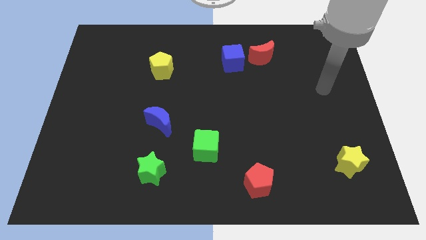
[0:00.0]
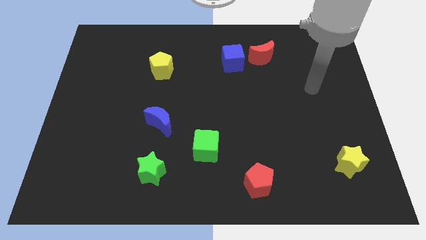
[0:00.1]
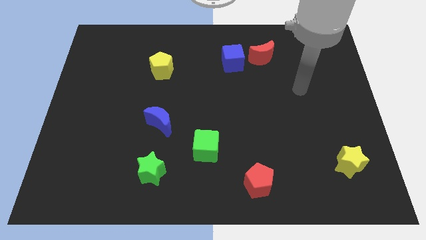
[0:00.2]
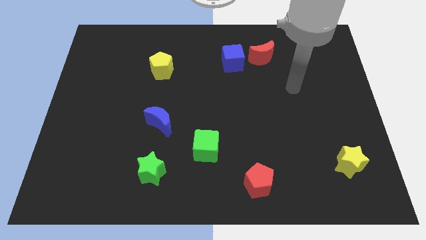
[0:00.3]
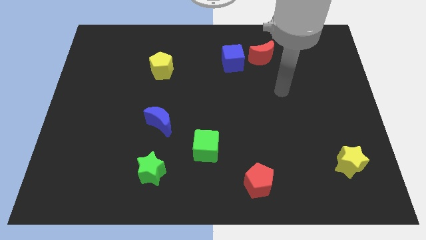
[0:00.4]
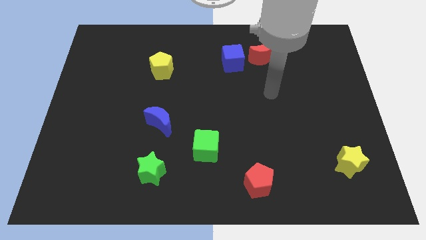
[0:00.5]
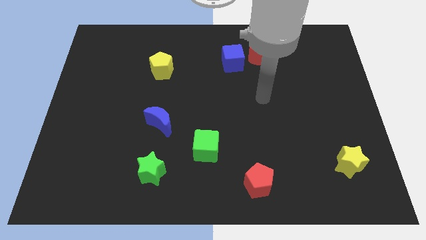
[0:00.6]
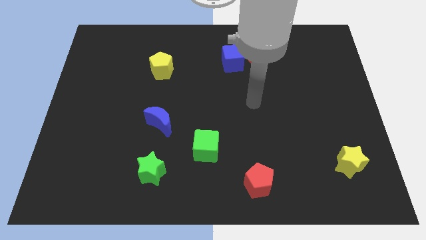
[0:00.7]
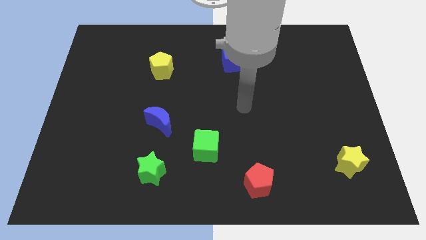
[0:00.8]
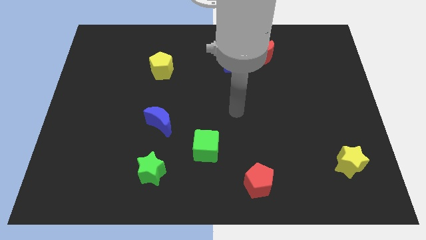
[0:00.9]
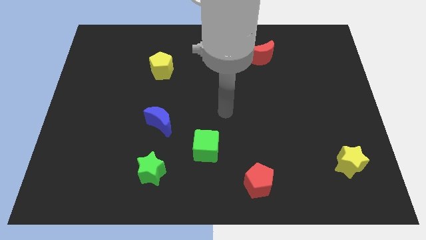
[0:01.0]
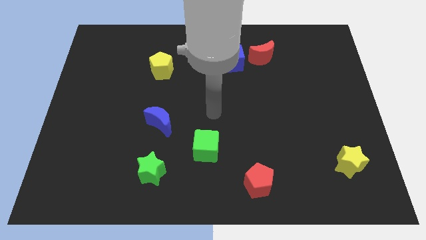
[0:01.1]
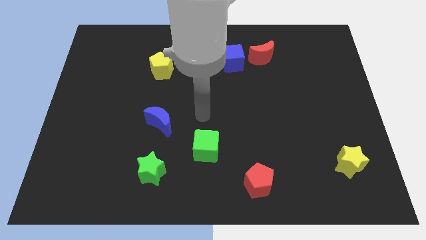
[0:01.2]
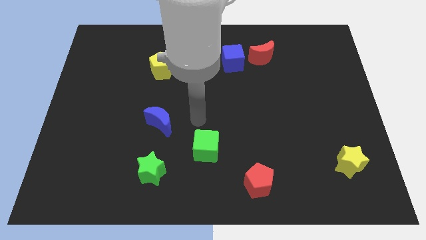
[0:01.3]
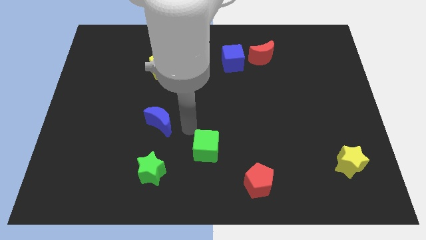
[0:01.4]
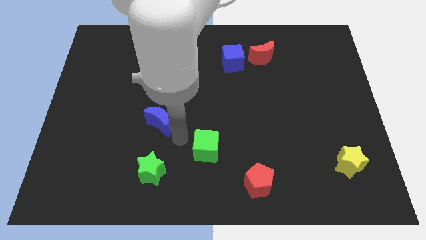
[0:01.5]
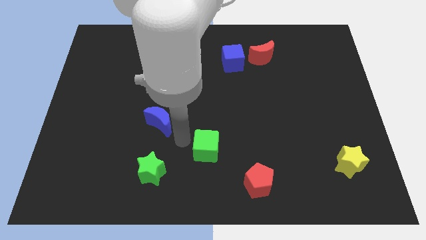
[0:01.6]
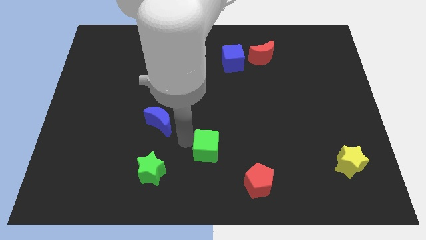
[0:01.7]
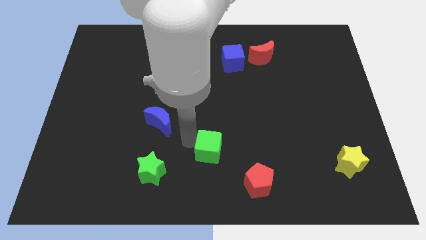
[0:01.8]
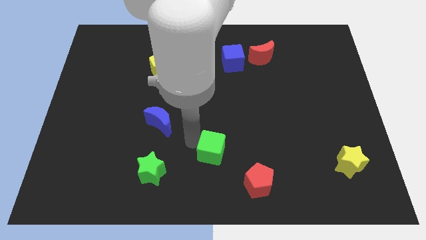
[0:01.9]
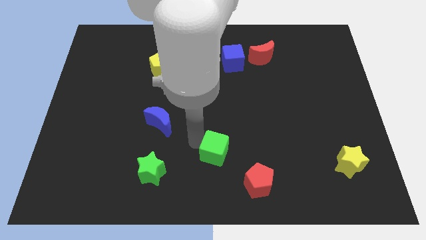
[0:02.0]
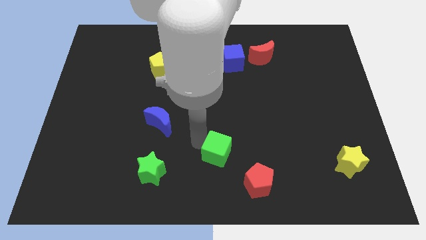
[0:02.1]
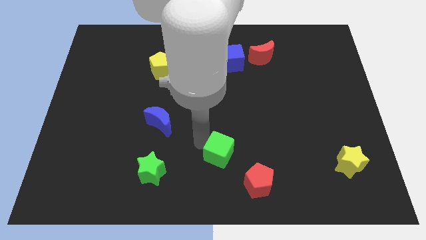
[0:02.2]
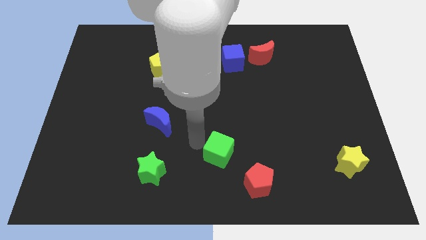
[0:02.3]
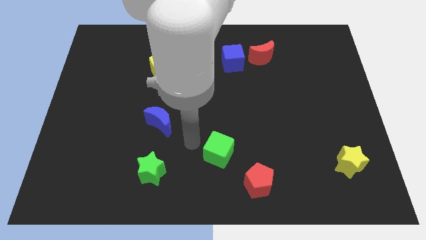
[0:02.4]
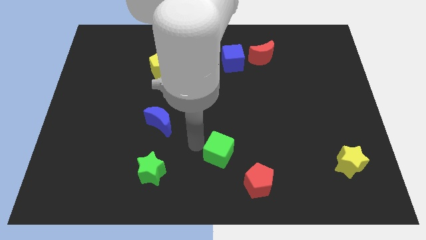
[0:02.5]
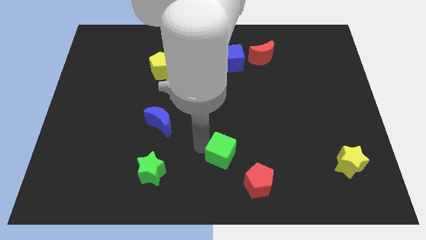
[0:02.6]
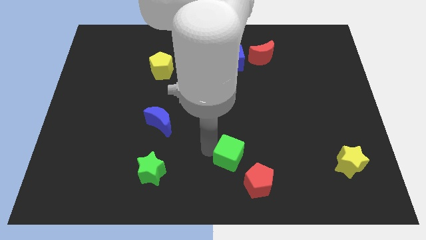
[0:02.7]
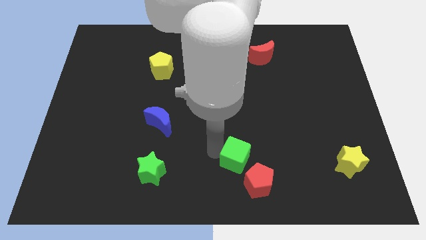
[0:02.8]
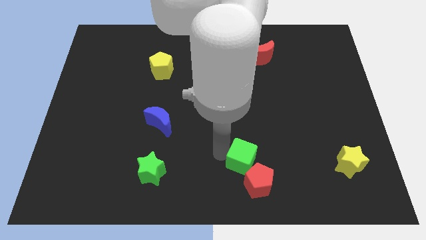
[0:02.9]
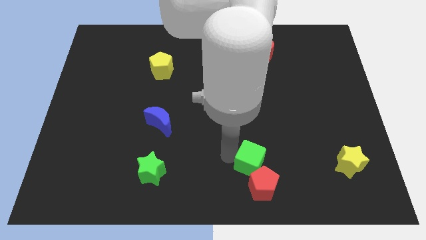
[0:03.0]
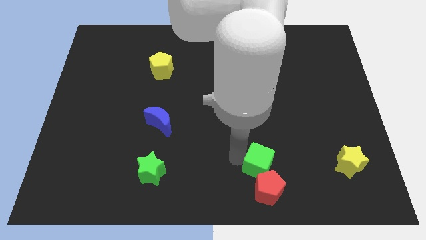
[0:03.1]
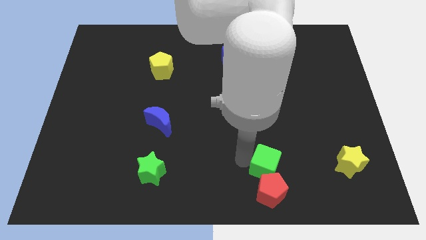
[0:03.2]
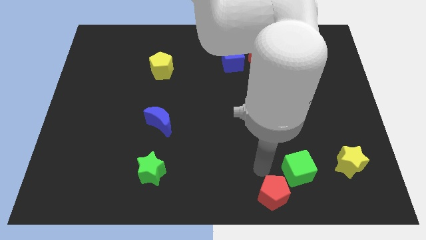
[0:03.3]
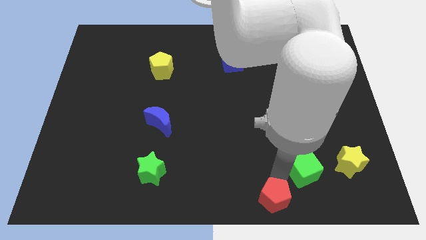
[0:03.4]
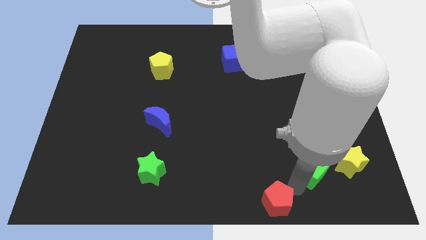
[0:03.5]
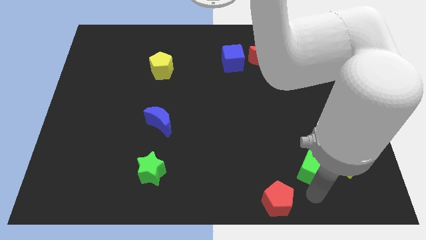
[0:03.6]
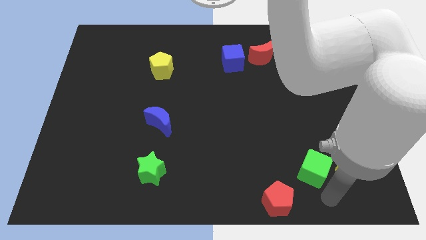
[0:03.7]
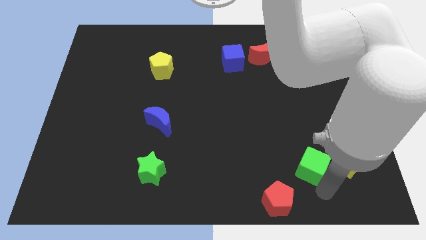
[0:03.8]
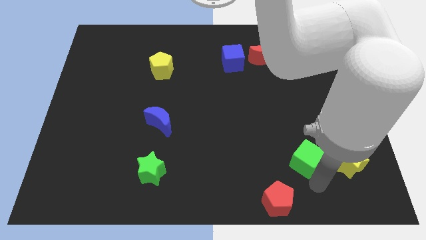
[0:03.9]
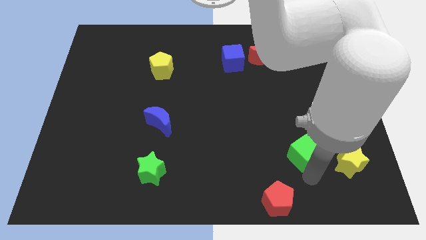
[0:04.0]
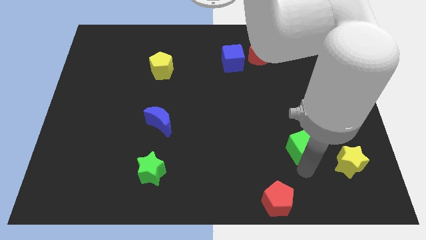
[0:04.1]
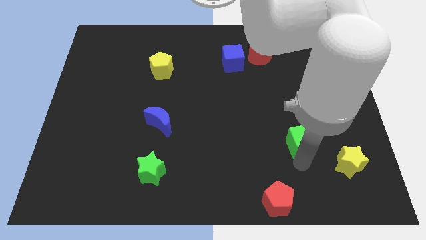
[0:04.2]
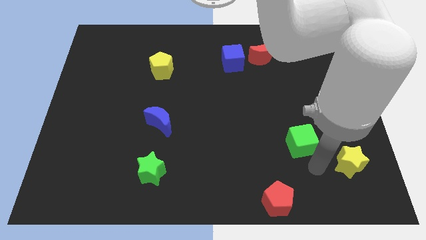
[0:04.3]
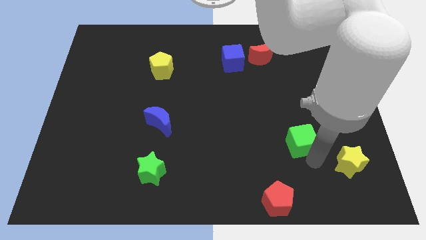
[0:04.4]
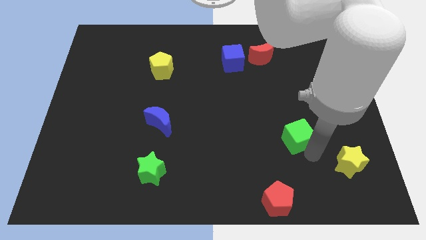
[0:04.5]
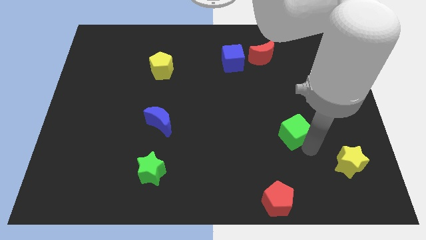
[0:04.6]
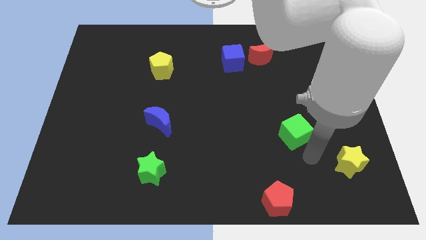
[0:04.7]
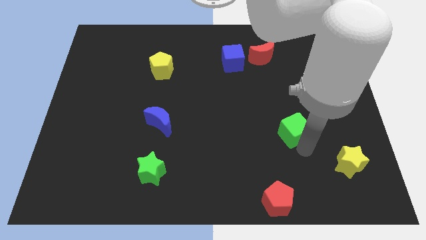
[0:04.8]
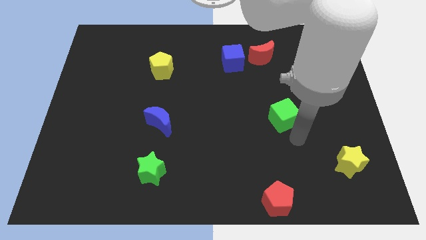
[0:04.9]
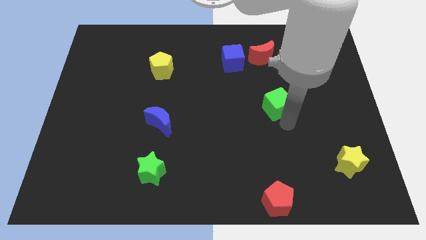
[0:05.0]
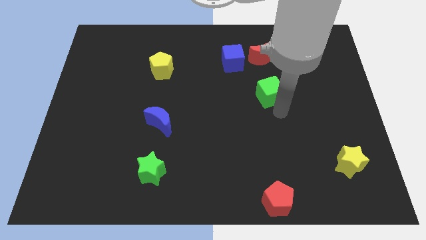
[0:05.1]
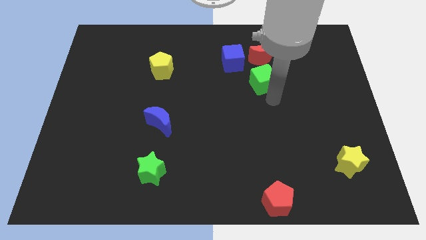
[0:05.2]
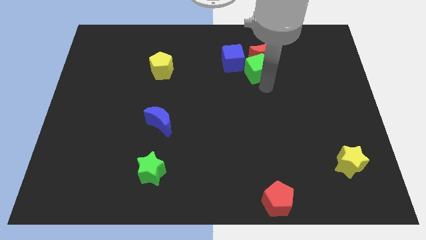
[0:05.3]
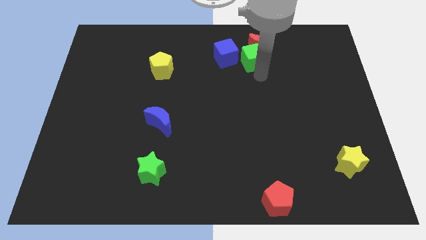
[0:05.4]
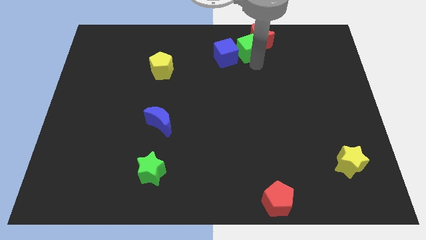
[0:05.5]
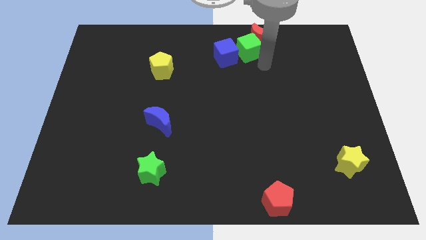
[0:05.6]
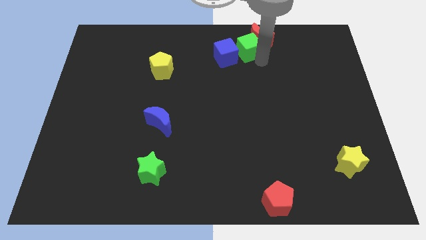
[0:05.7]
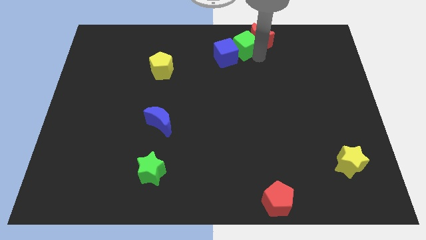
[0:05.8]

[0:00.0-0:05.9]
slide the green cube to the towards your base

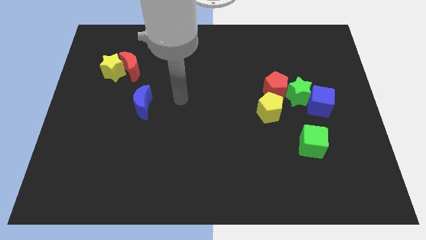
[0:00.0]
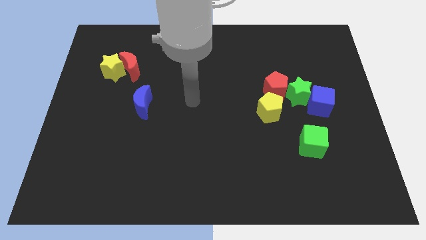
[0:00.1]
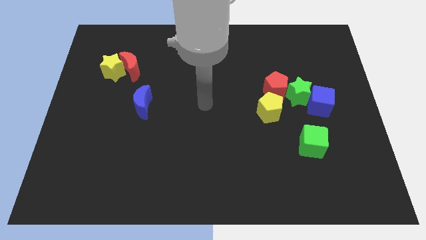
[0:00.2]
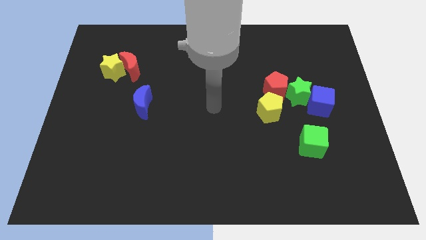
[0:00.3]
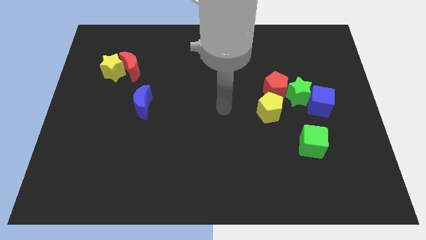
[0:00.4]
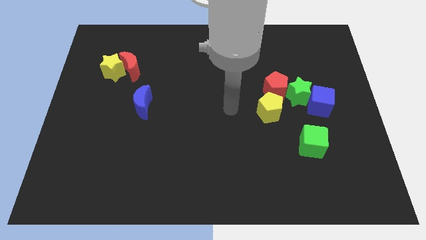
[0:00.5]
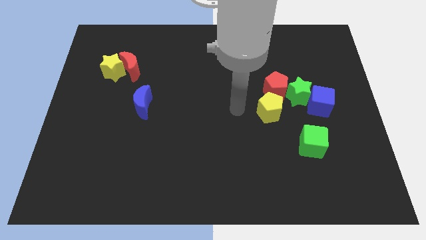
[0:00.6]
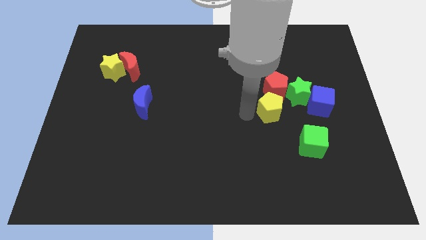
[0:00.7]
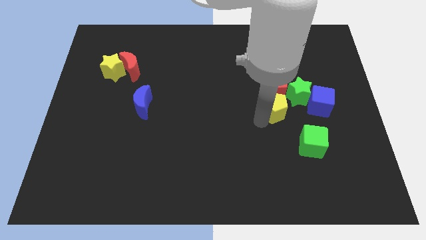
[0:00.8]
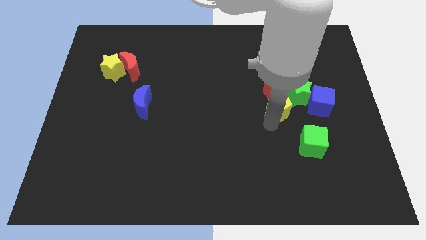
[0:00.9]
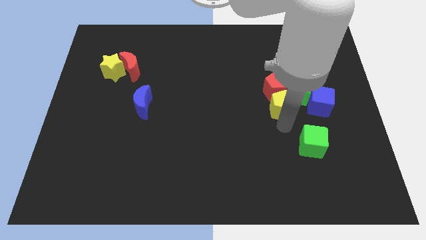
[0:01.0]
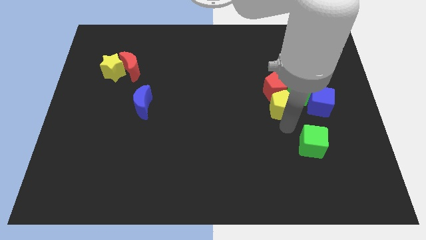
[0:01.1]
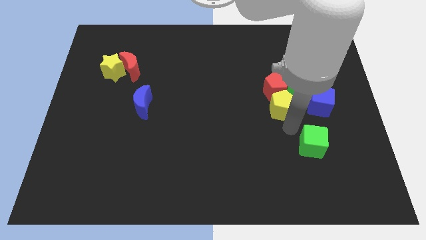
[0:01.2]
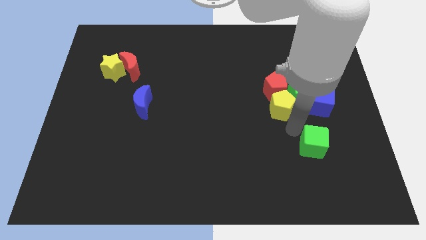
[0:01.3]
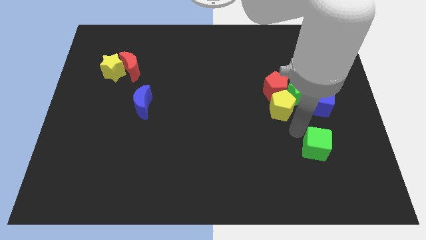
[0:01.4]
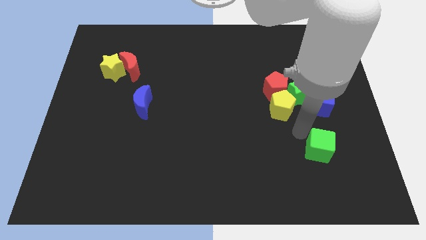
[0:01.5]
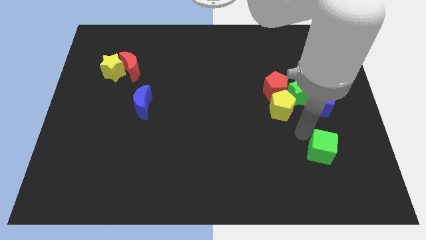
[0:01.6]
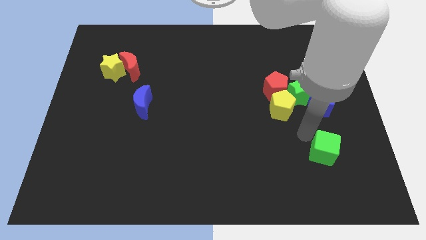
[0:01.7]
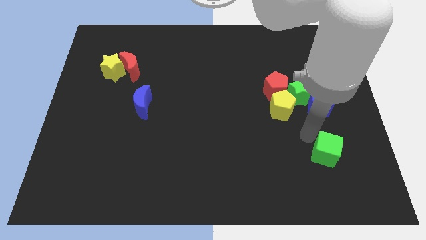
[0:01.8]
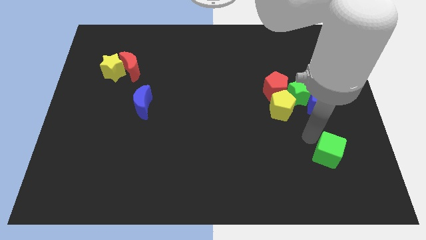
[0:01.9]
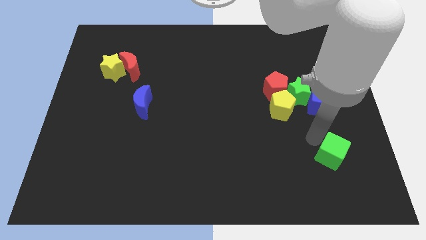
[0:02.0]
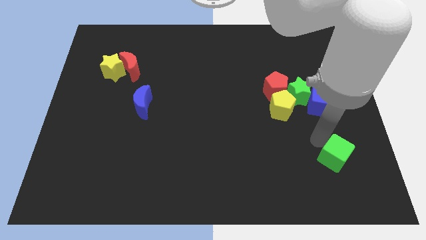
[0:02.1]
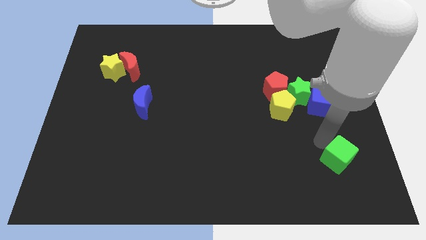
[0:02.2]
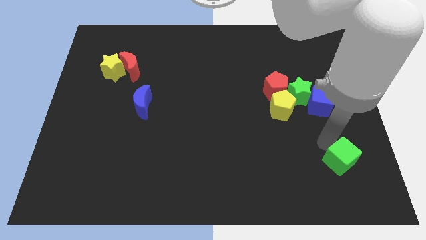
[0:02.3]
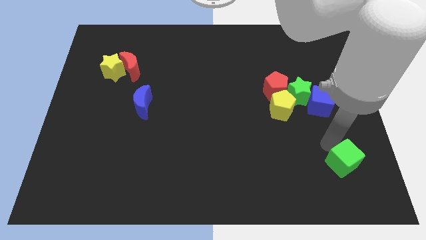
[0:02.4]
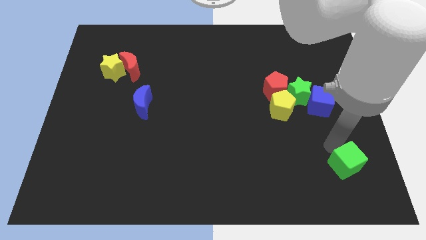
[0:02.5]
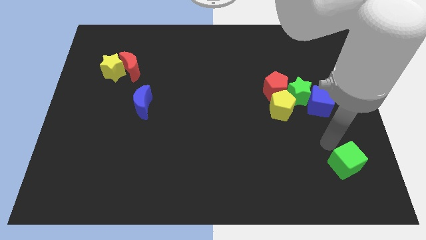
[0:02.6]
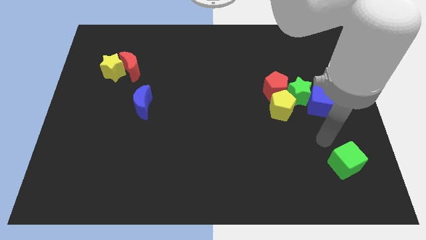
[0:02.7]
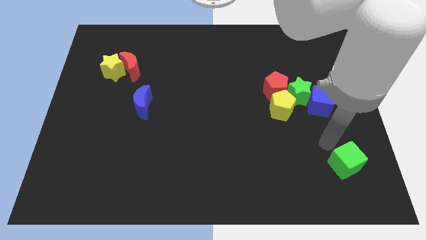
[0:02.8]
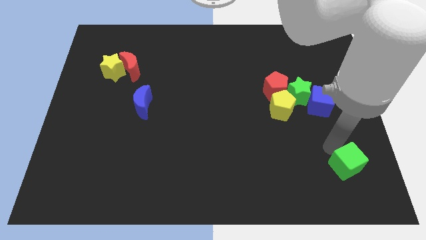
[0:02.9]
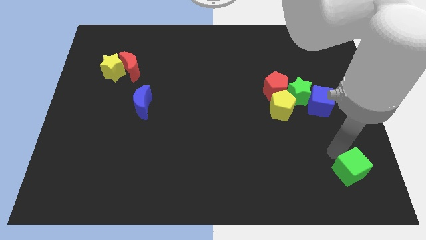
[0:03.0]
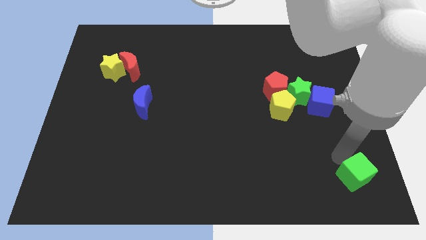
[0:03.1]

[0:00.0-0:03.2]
slide the green cube to the bottom right
